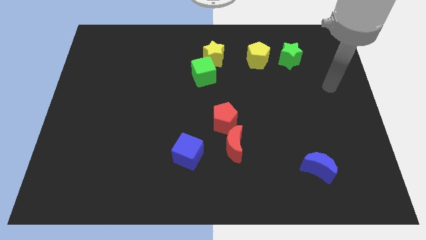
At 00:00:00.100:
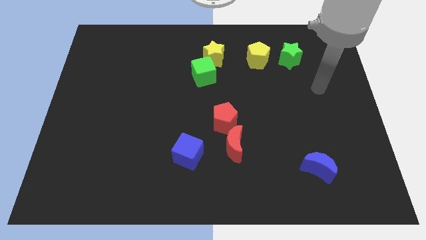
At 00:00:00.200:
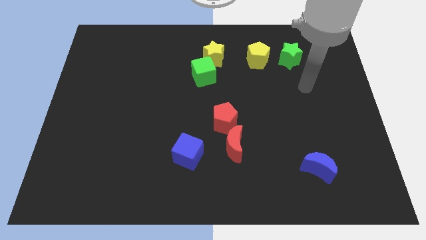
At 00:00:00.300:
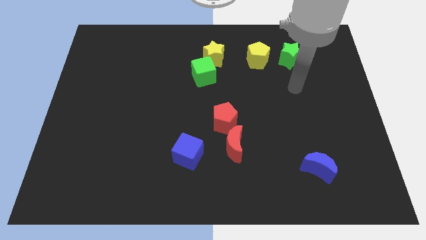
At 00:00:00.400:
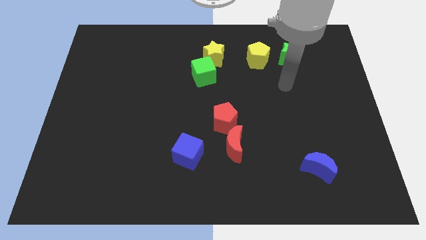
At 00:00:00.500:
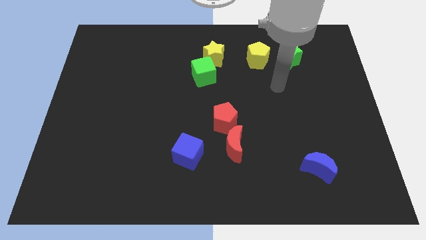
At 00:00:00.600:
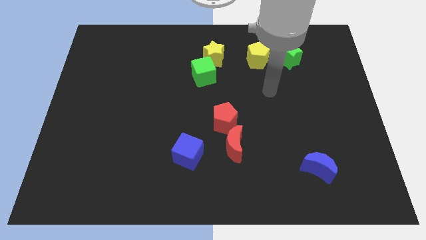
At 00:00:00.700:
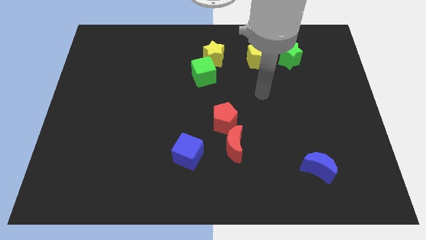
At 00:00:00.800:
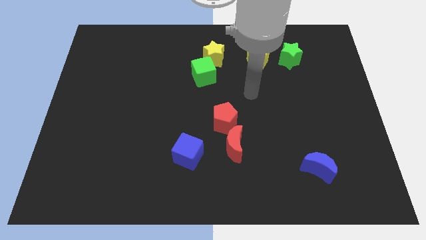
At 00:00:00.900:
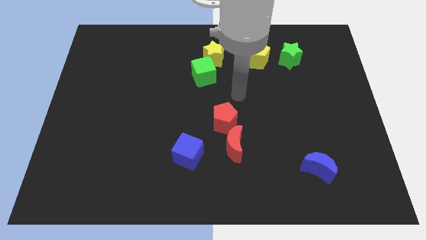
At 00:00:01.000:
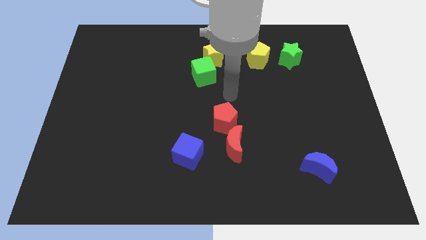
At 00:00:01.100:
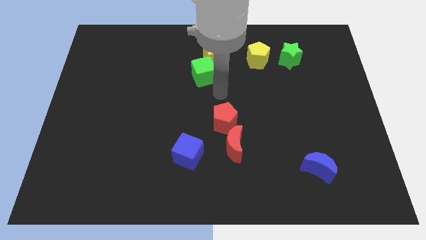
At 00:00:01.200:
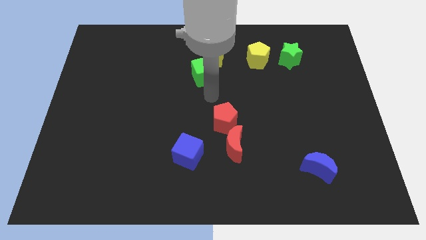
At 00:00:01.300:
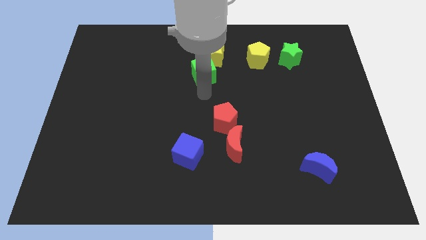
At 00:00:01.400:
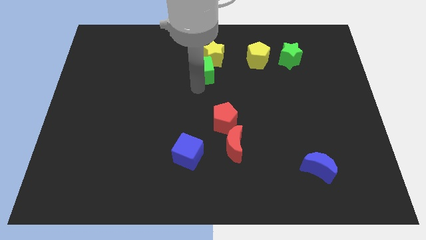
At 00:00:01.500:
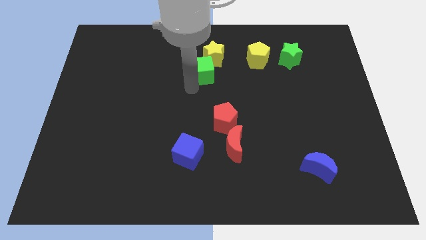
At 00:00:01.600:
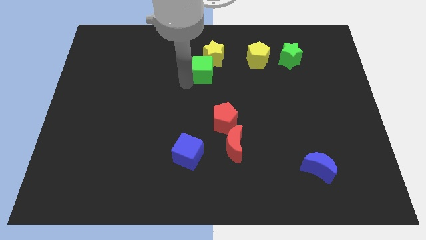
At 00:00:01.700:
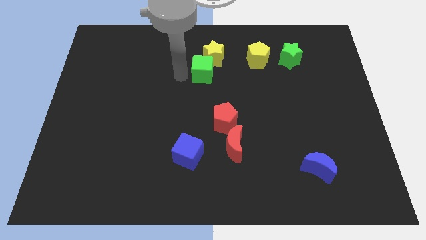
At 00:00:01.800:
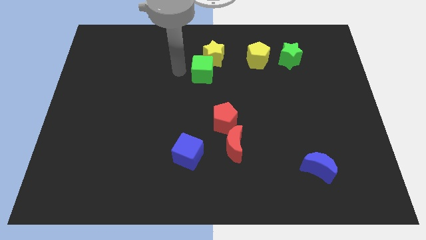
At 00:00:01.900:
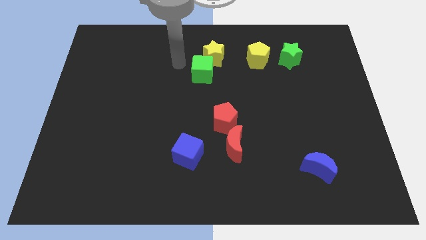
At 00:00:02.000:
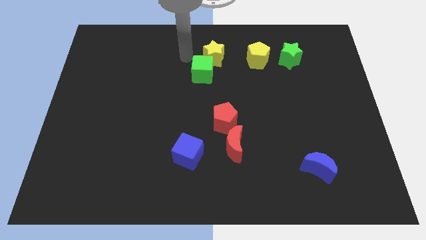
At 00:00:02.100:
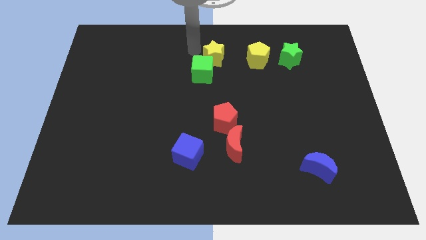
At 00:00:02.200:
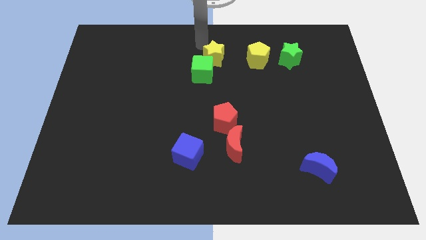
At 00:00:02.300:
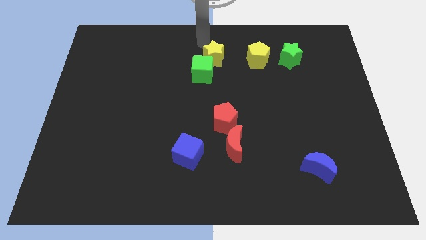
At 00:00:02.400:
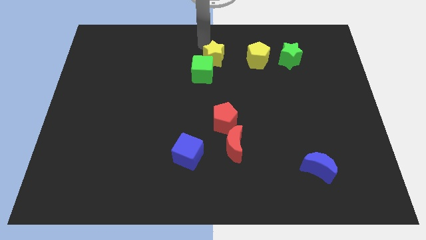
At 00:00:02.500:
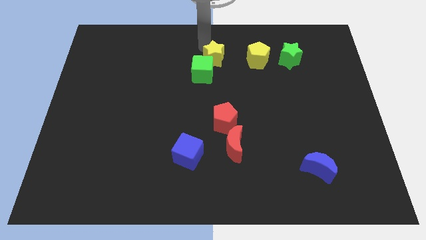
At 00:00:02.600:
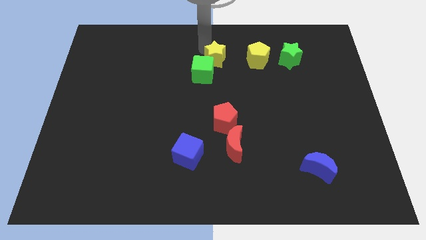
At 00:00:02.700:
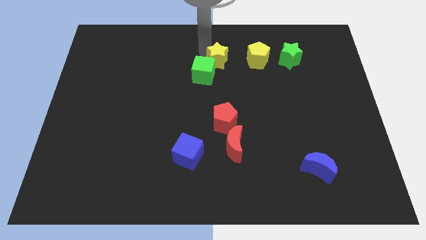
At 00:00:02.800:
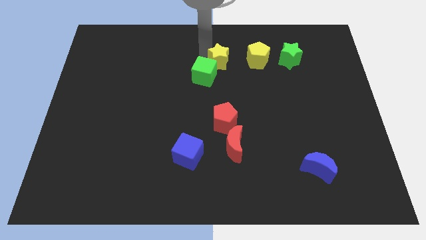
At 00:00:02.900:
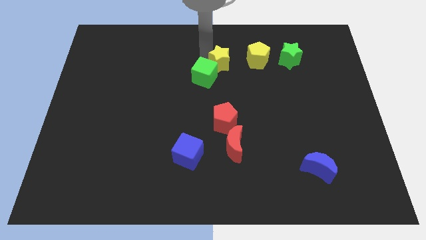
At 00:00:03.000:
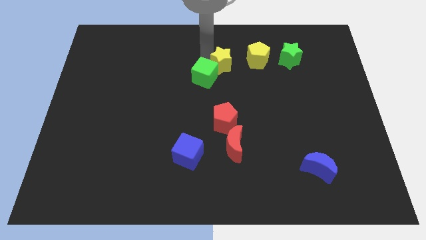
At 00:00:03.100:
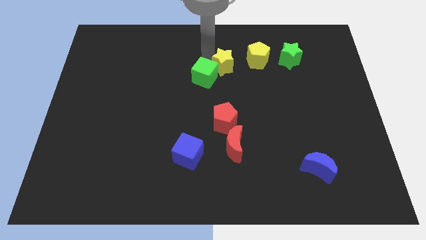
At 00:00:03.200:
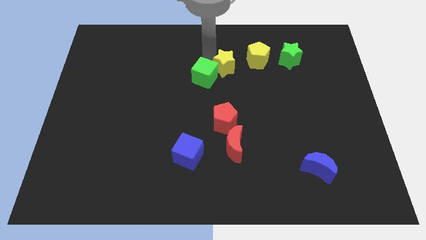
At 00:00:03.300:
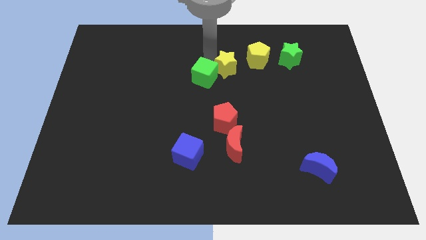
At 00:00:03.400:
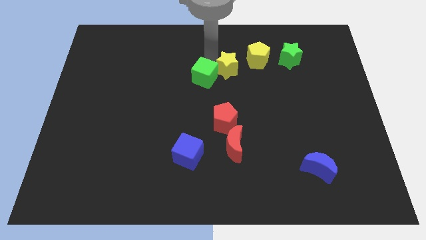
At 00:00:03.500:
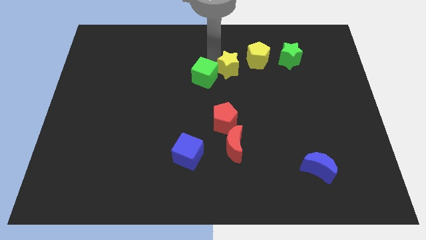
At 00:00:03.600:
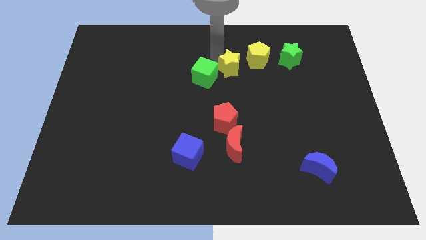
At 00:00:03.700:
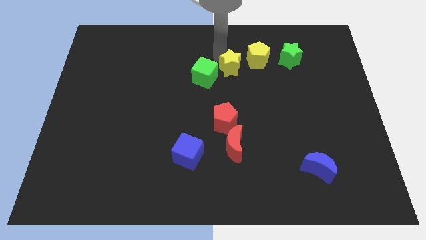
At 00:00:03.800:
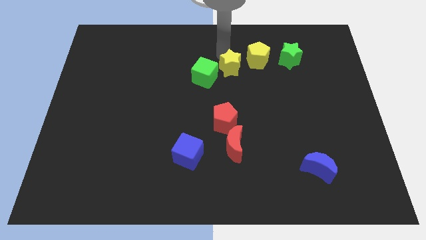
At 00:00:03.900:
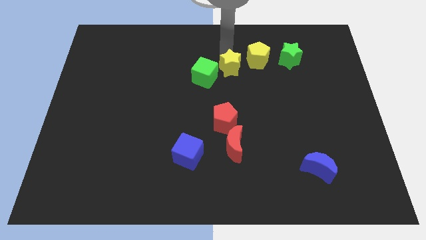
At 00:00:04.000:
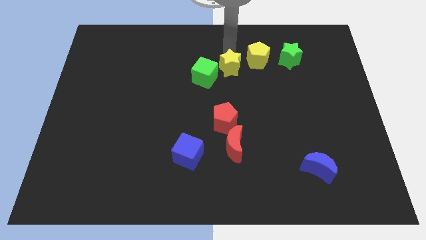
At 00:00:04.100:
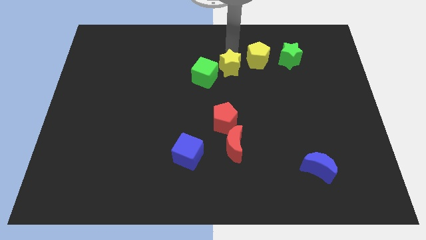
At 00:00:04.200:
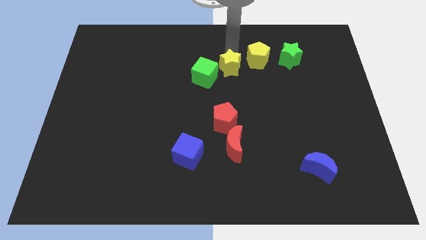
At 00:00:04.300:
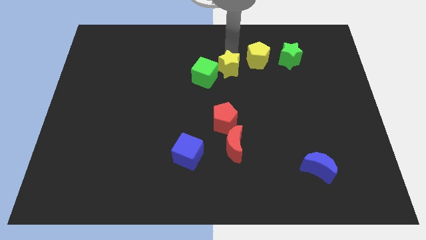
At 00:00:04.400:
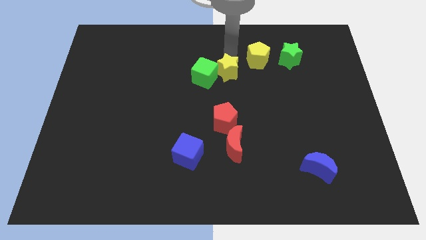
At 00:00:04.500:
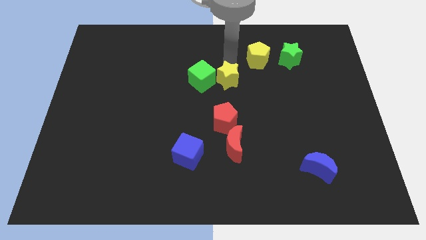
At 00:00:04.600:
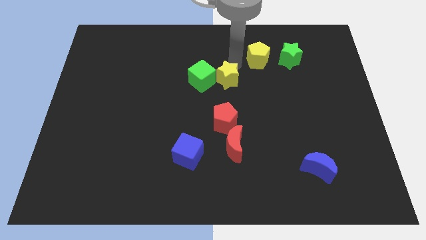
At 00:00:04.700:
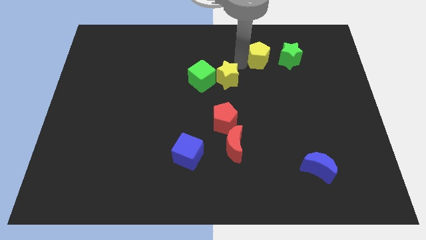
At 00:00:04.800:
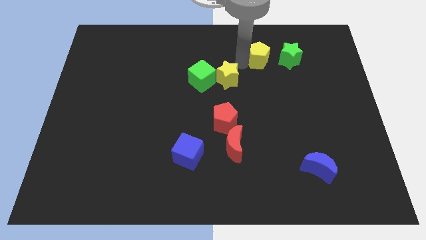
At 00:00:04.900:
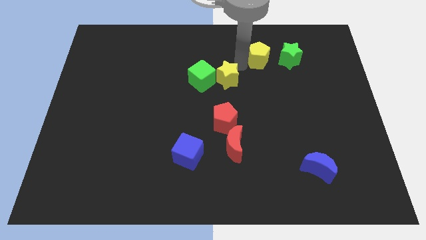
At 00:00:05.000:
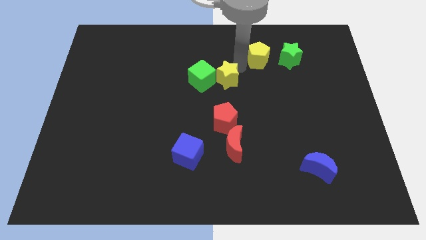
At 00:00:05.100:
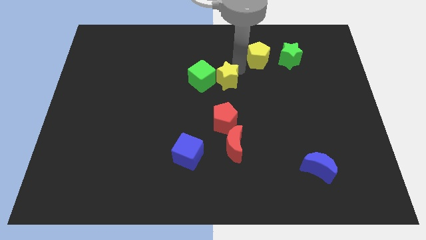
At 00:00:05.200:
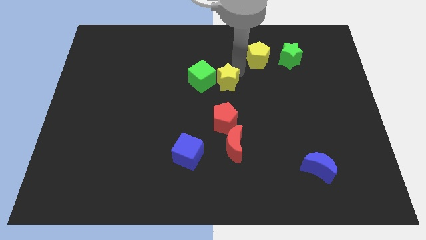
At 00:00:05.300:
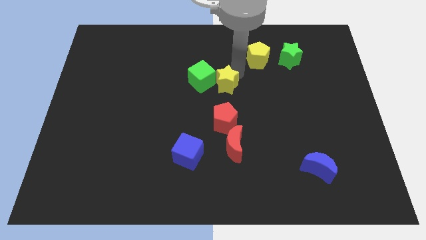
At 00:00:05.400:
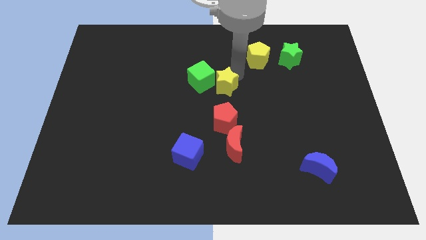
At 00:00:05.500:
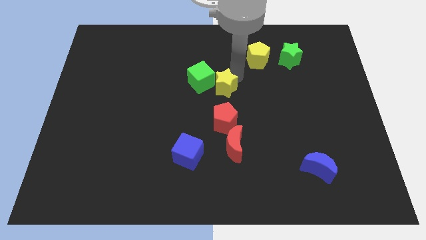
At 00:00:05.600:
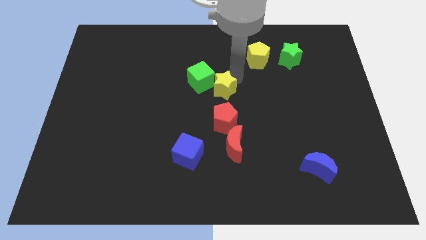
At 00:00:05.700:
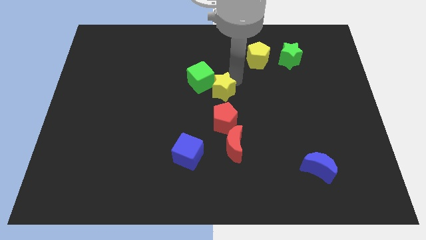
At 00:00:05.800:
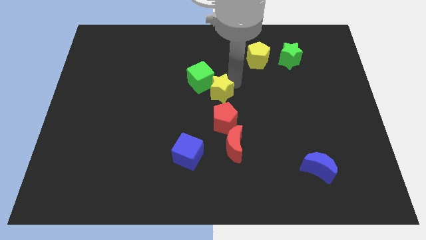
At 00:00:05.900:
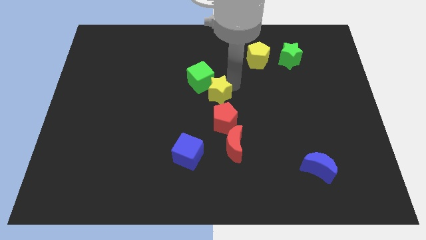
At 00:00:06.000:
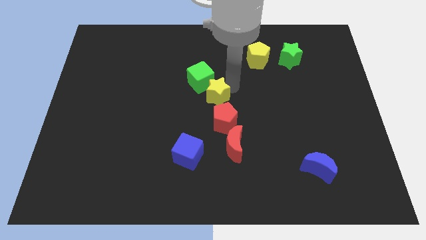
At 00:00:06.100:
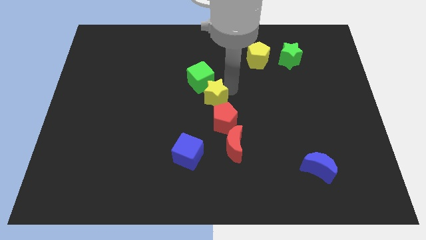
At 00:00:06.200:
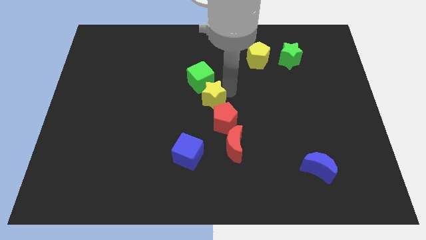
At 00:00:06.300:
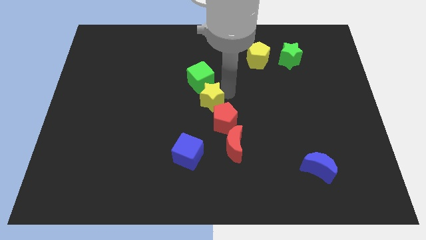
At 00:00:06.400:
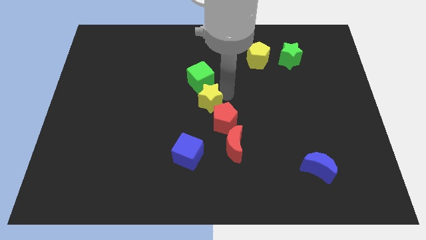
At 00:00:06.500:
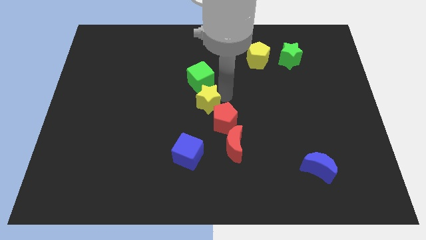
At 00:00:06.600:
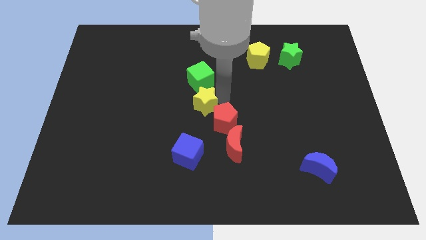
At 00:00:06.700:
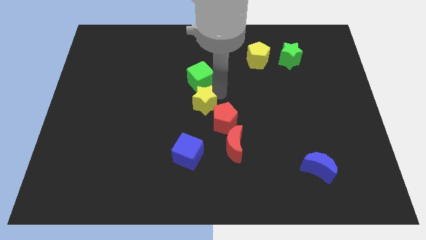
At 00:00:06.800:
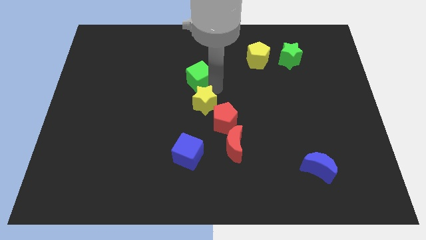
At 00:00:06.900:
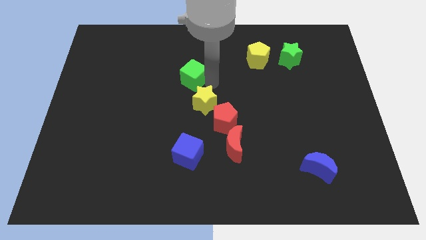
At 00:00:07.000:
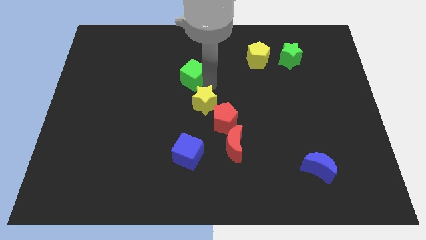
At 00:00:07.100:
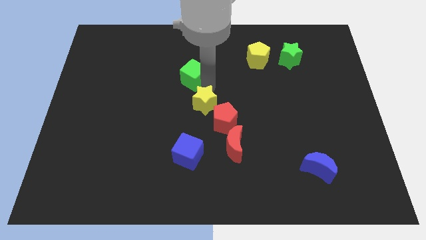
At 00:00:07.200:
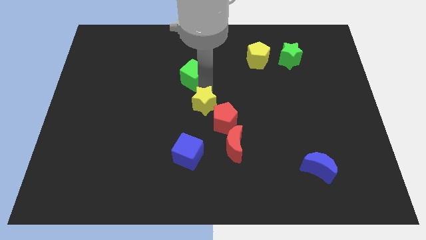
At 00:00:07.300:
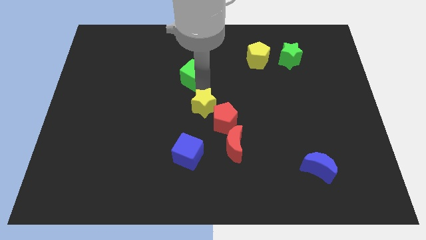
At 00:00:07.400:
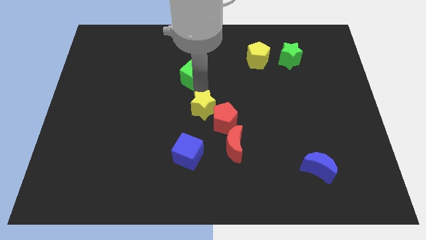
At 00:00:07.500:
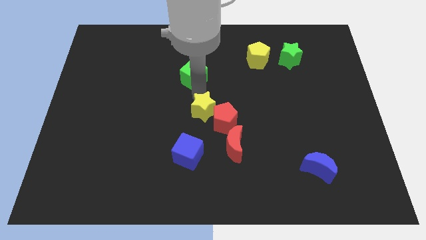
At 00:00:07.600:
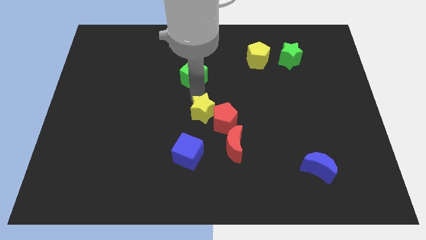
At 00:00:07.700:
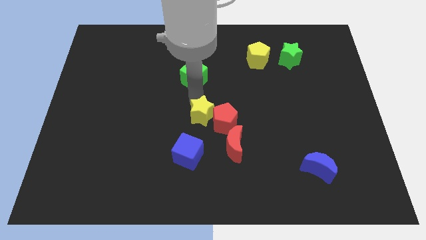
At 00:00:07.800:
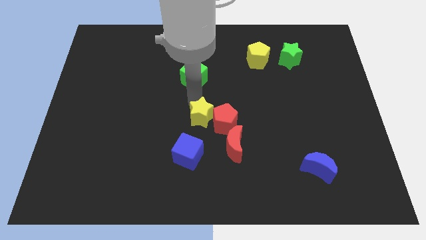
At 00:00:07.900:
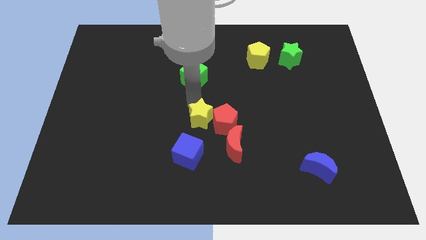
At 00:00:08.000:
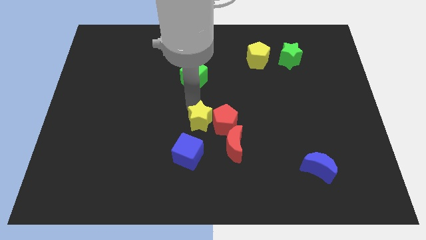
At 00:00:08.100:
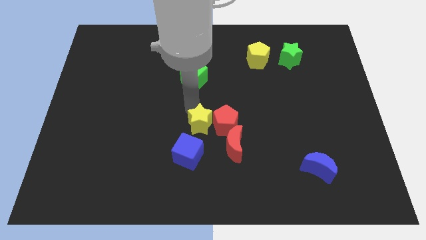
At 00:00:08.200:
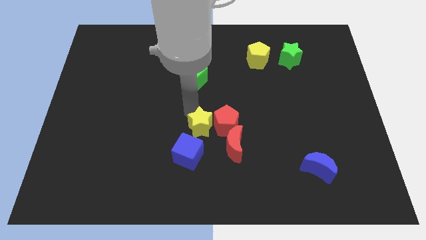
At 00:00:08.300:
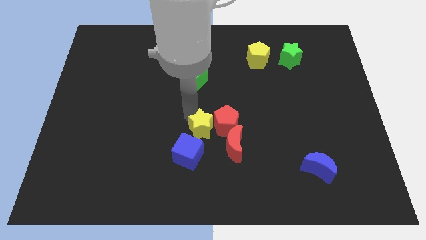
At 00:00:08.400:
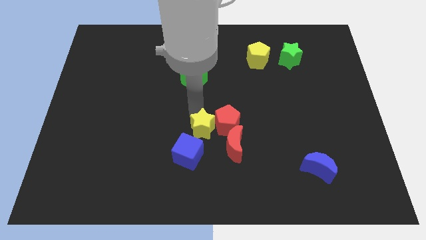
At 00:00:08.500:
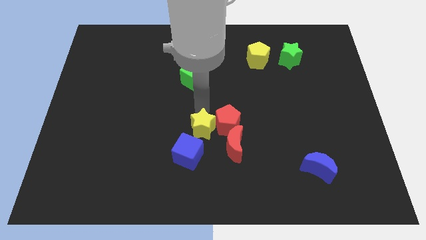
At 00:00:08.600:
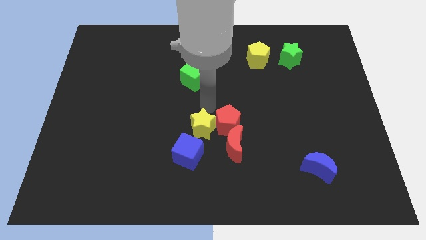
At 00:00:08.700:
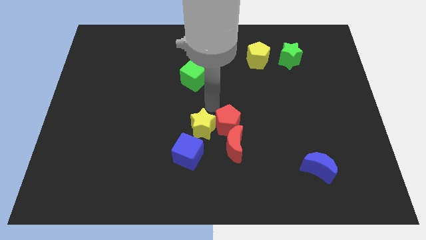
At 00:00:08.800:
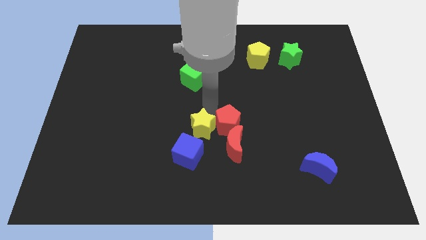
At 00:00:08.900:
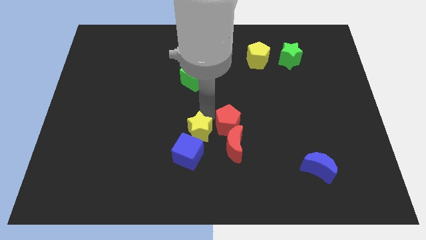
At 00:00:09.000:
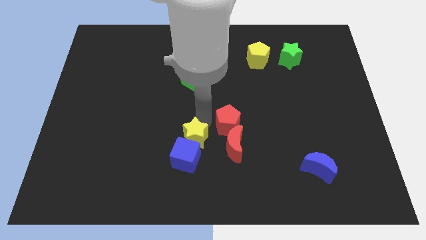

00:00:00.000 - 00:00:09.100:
put the yellow star next to the blue cube
